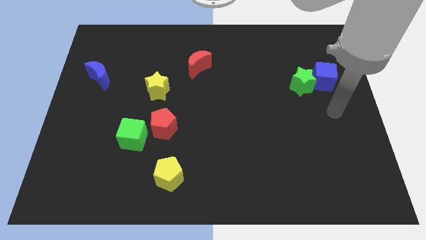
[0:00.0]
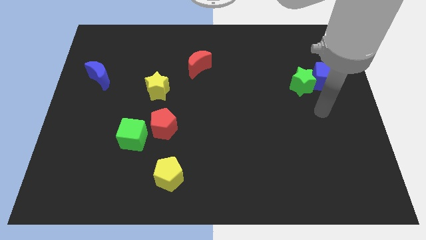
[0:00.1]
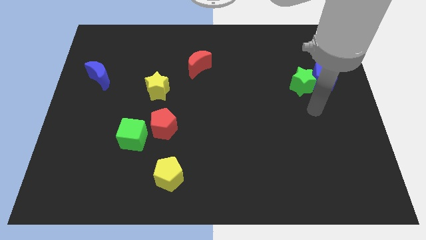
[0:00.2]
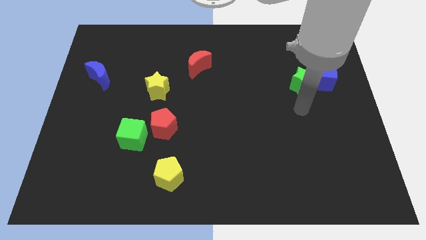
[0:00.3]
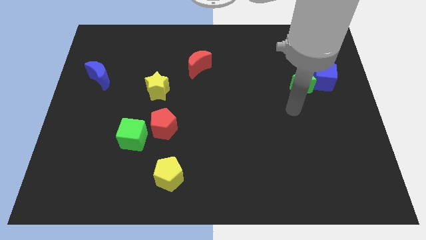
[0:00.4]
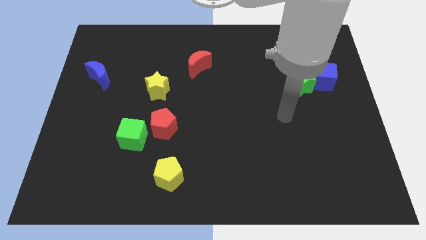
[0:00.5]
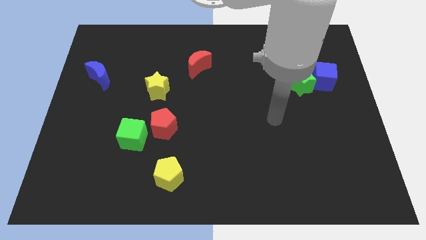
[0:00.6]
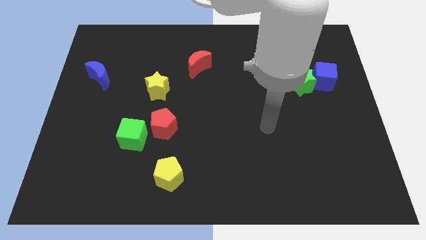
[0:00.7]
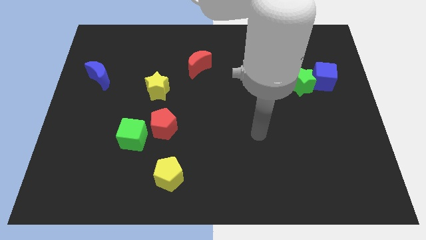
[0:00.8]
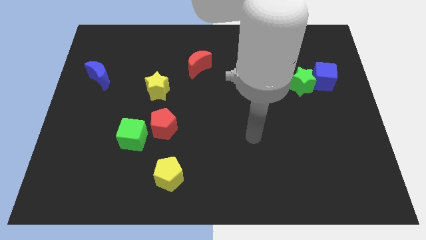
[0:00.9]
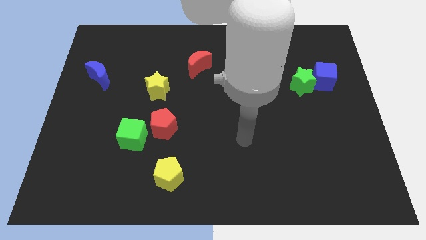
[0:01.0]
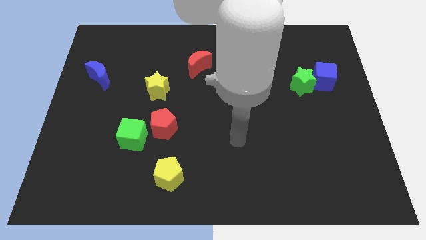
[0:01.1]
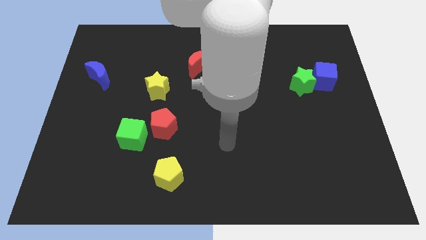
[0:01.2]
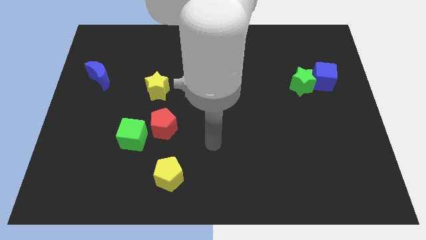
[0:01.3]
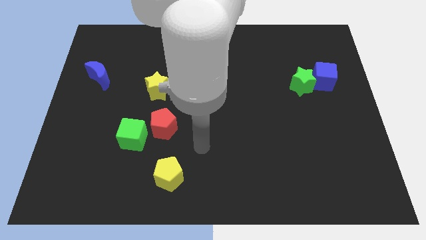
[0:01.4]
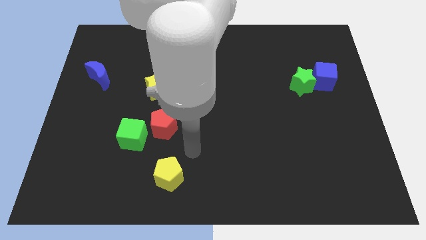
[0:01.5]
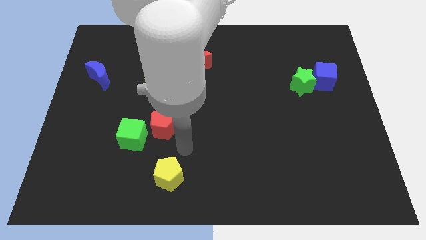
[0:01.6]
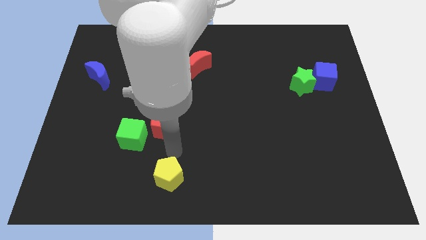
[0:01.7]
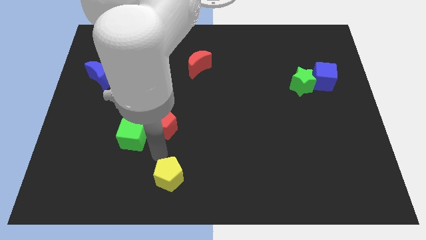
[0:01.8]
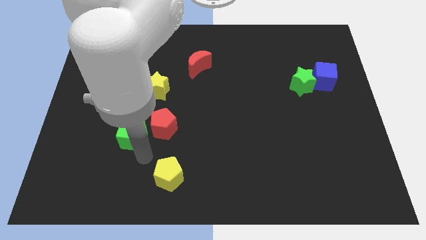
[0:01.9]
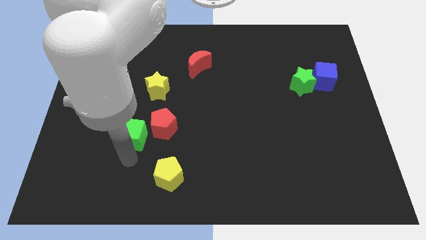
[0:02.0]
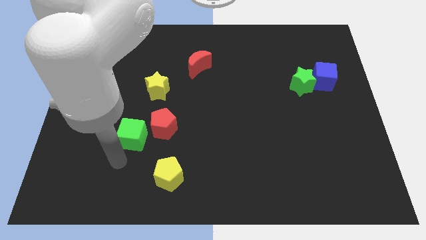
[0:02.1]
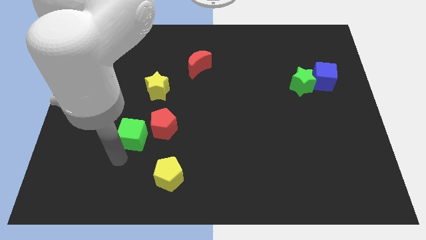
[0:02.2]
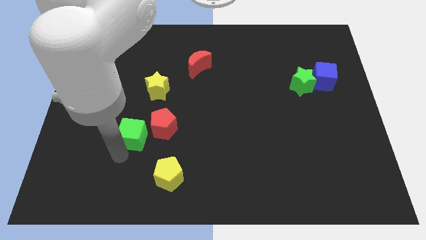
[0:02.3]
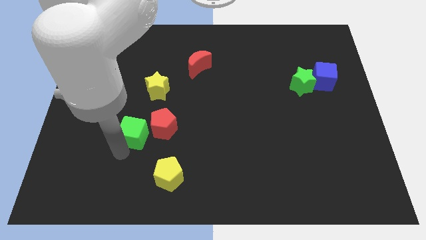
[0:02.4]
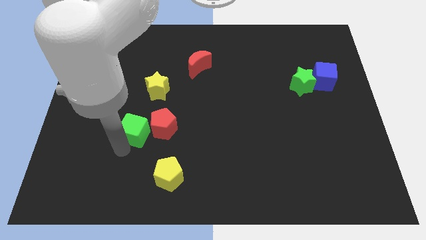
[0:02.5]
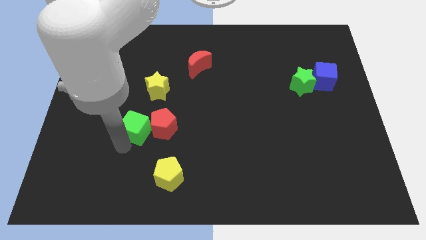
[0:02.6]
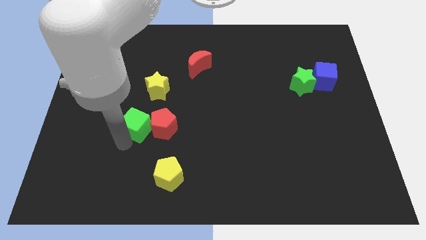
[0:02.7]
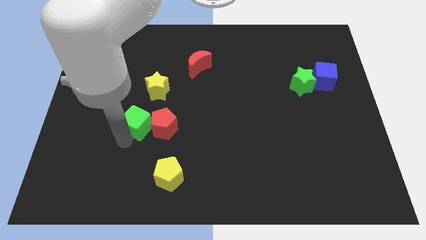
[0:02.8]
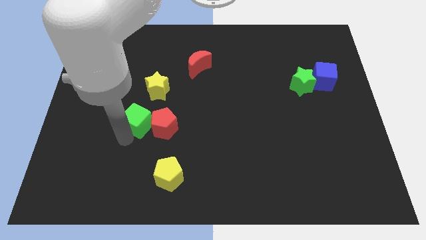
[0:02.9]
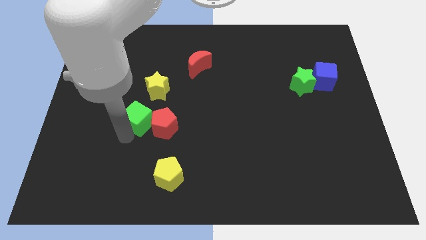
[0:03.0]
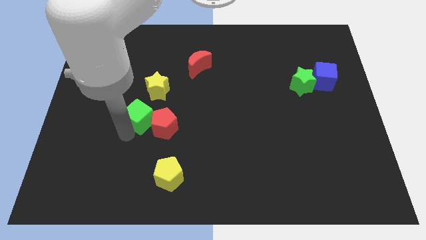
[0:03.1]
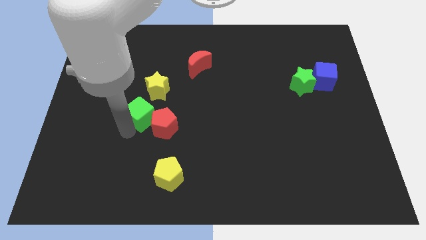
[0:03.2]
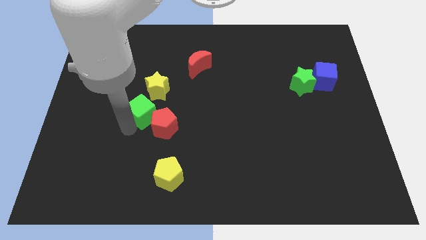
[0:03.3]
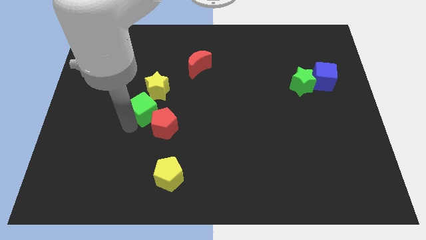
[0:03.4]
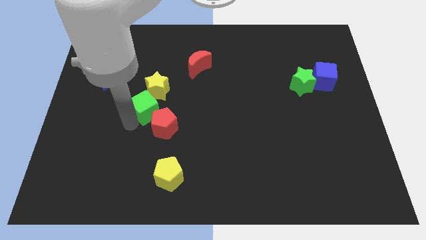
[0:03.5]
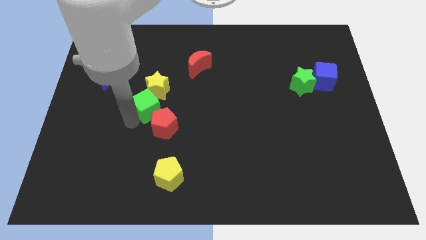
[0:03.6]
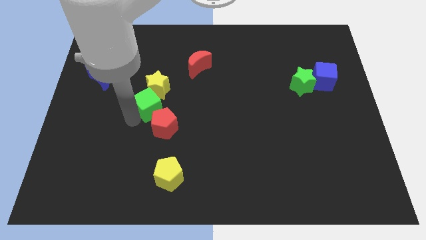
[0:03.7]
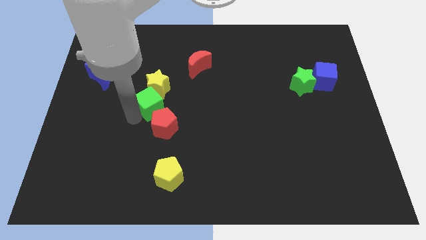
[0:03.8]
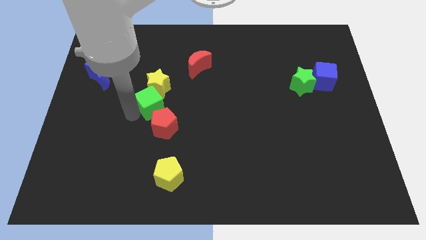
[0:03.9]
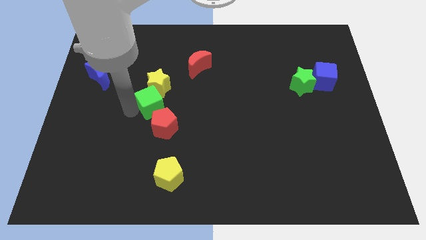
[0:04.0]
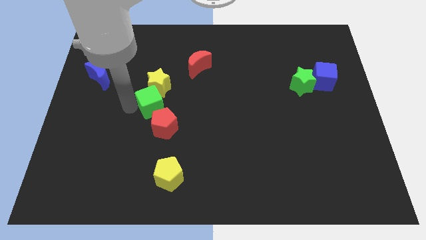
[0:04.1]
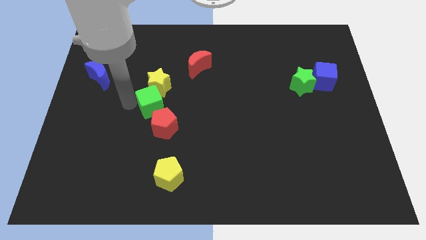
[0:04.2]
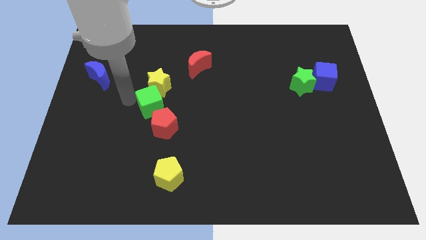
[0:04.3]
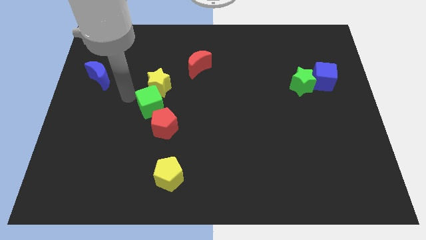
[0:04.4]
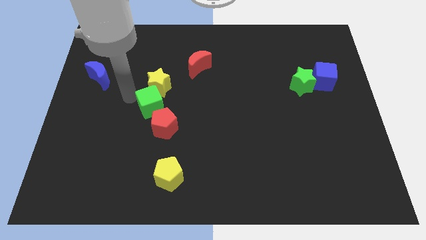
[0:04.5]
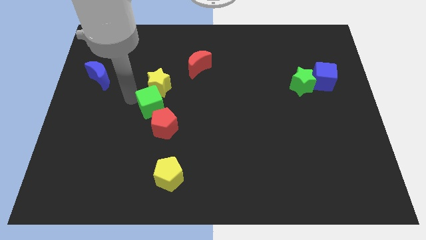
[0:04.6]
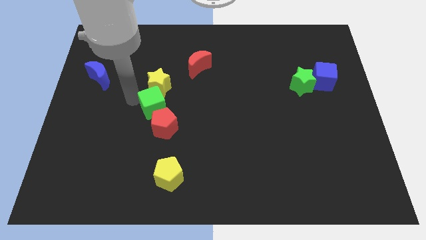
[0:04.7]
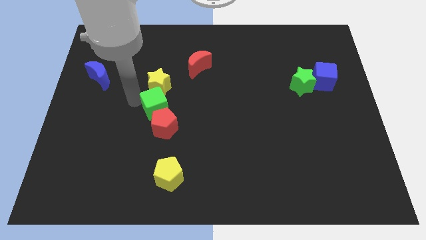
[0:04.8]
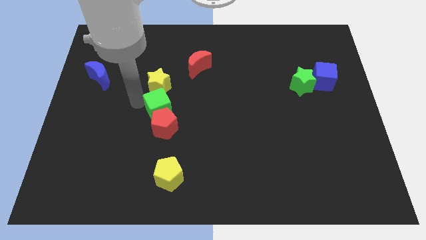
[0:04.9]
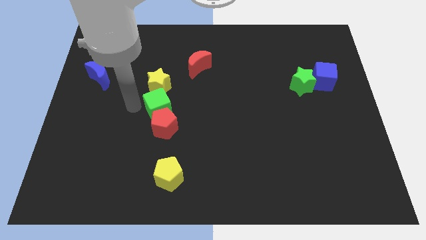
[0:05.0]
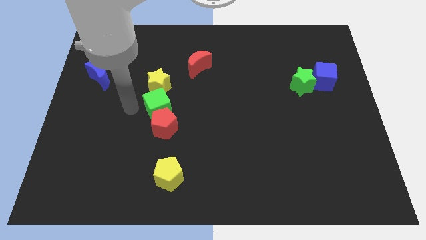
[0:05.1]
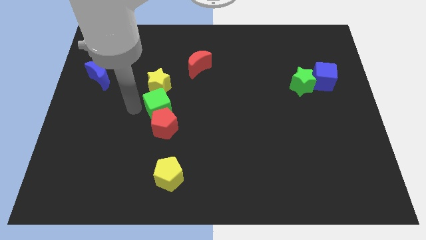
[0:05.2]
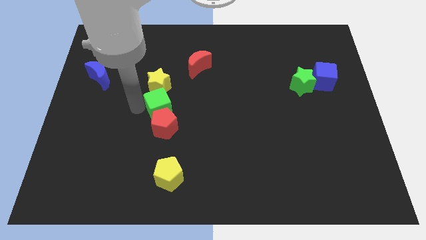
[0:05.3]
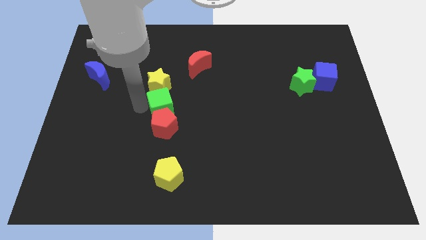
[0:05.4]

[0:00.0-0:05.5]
put the green cube to the center
